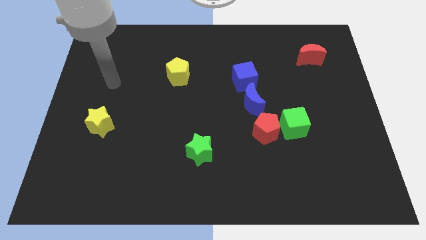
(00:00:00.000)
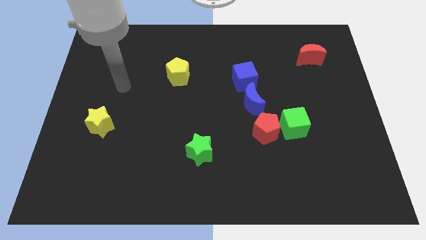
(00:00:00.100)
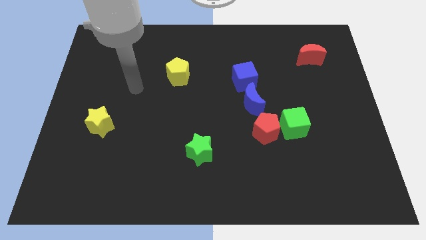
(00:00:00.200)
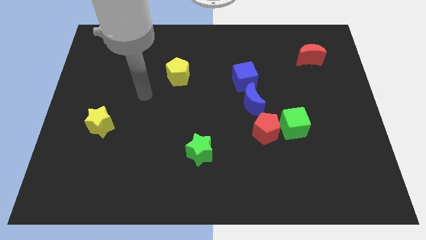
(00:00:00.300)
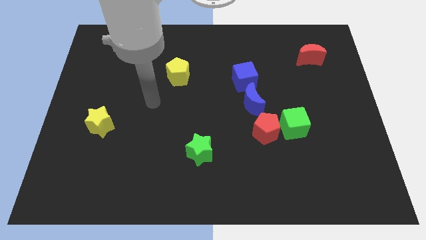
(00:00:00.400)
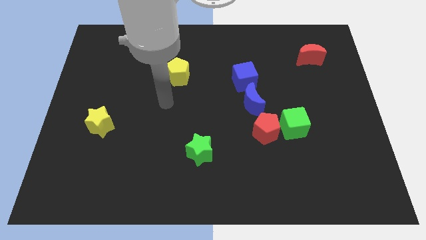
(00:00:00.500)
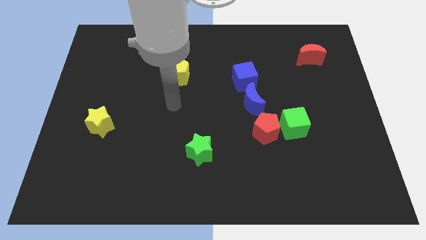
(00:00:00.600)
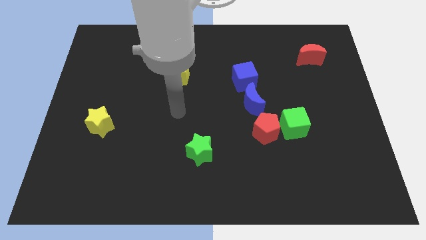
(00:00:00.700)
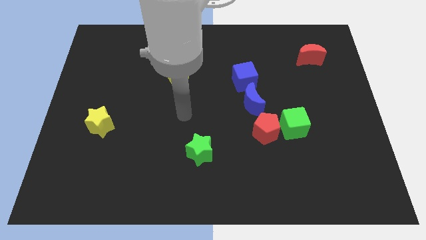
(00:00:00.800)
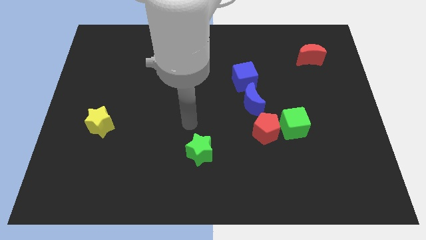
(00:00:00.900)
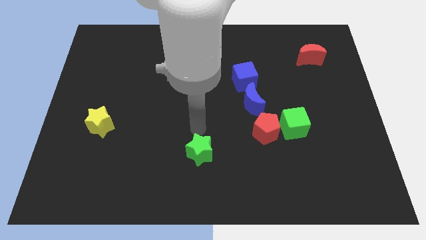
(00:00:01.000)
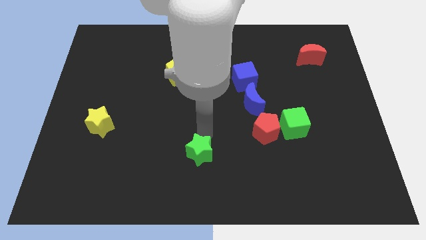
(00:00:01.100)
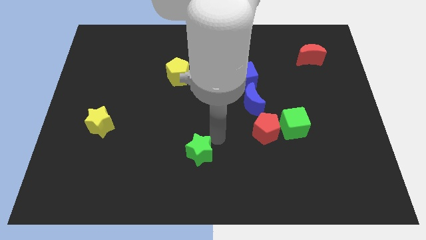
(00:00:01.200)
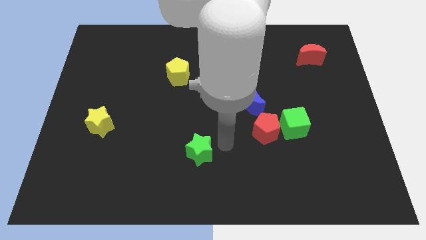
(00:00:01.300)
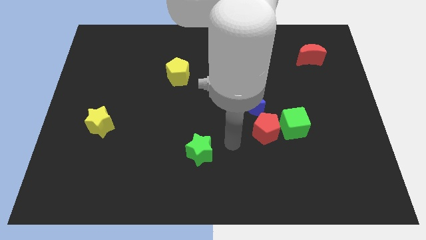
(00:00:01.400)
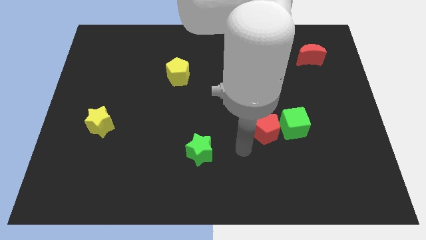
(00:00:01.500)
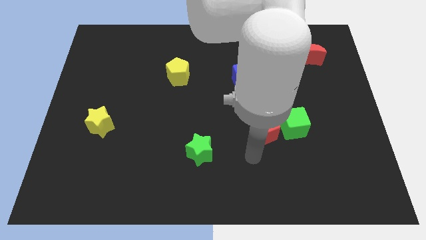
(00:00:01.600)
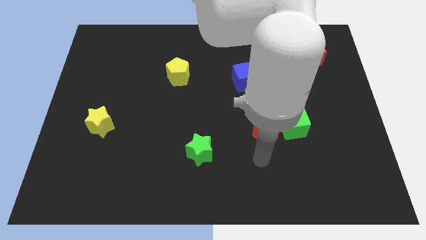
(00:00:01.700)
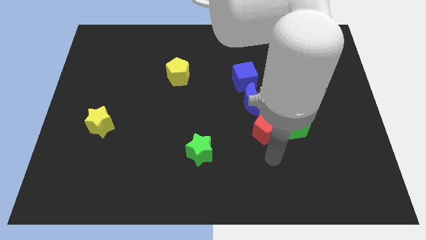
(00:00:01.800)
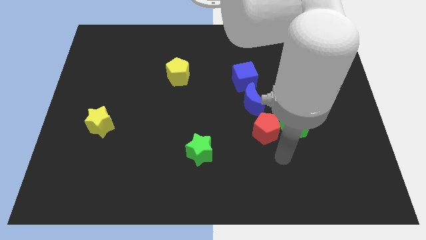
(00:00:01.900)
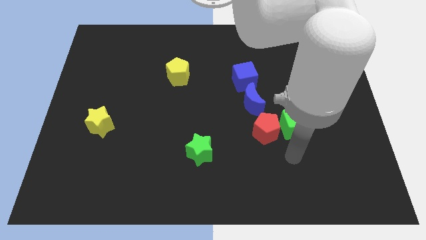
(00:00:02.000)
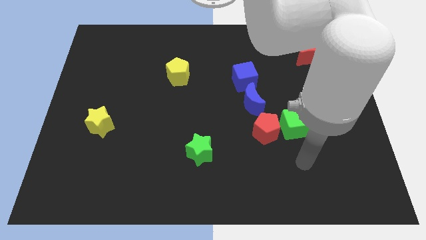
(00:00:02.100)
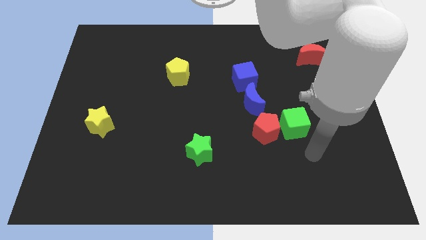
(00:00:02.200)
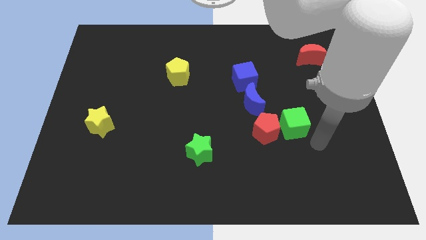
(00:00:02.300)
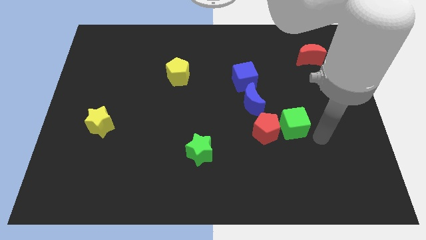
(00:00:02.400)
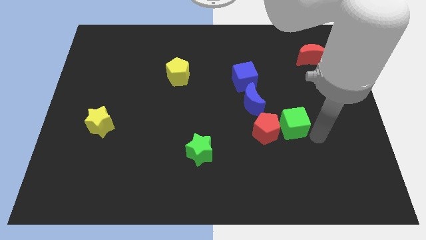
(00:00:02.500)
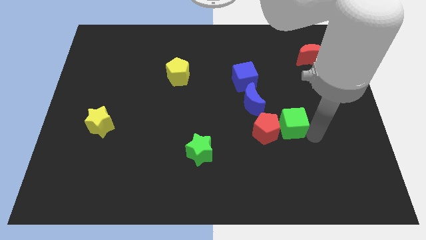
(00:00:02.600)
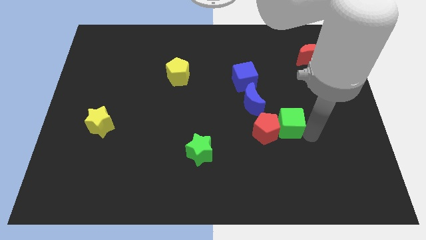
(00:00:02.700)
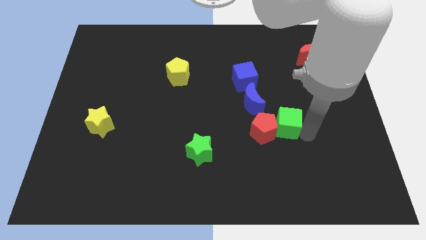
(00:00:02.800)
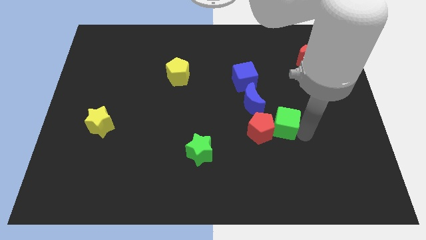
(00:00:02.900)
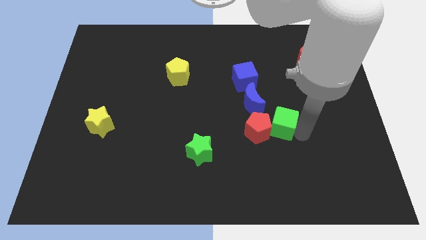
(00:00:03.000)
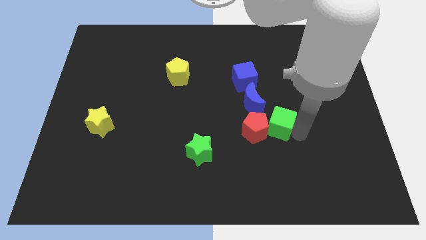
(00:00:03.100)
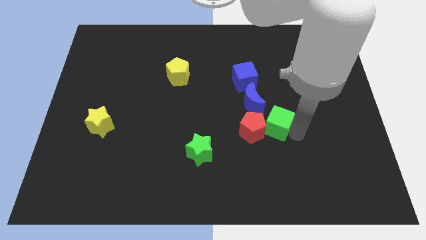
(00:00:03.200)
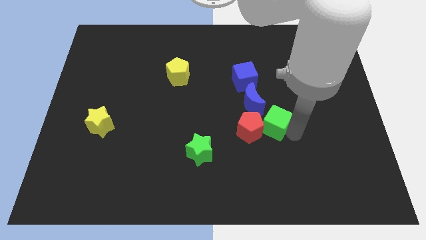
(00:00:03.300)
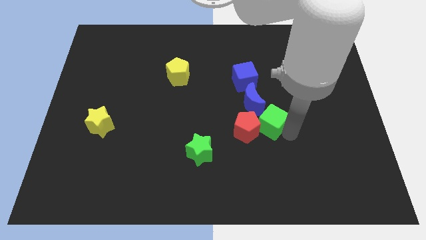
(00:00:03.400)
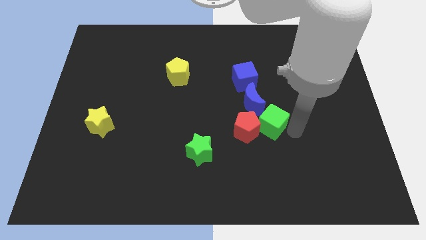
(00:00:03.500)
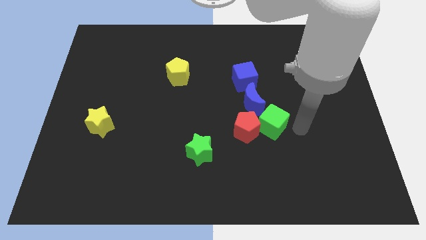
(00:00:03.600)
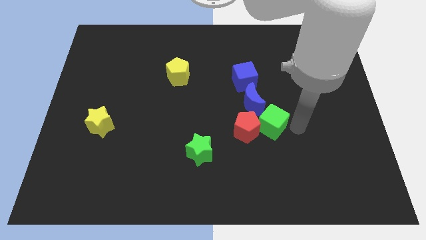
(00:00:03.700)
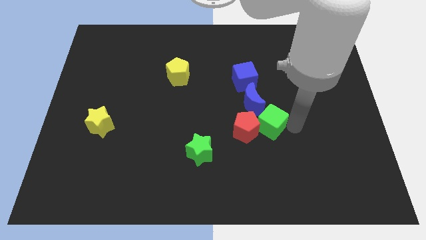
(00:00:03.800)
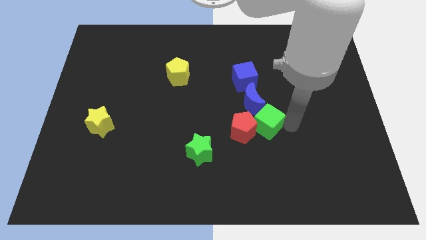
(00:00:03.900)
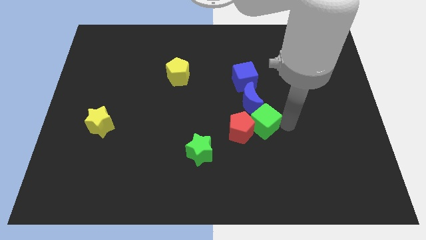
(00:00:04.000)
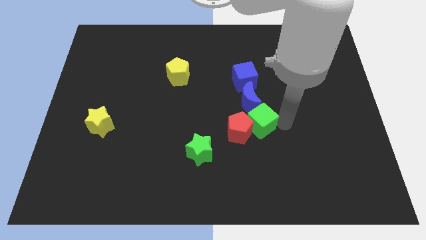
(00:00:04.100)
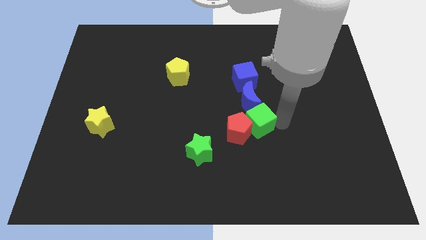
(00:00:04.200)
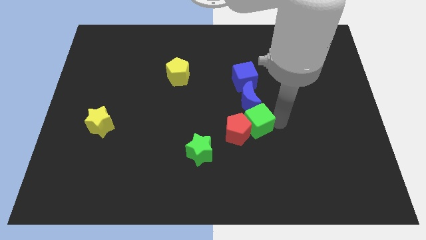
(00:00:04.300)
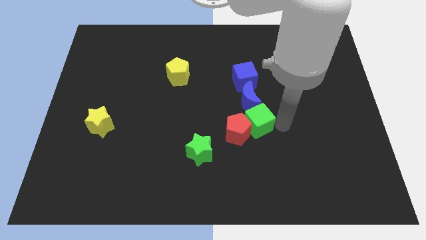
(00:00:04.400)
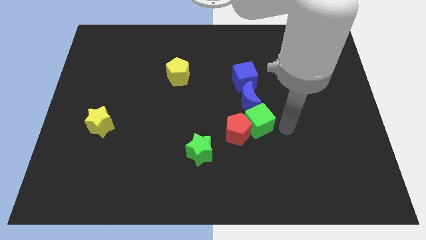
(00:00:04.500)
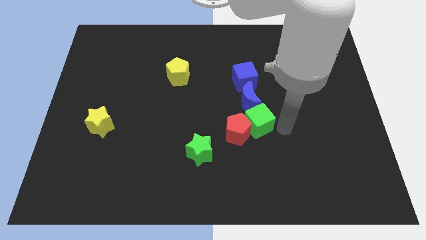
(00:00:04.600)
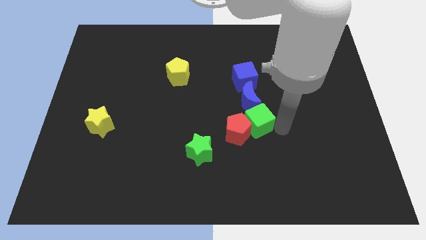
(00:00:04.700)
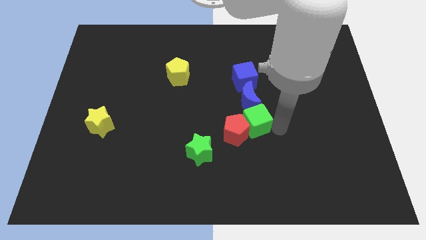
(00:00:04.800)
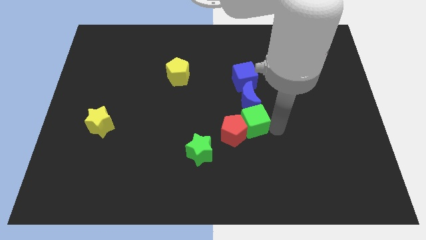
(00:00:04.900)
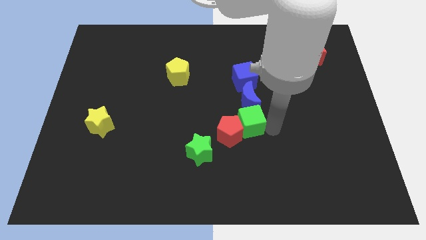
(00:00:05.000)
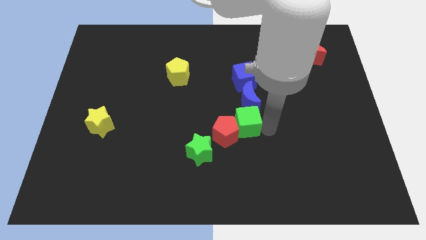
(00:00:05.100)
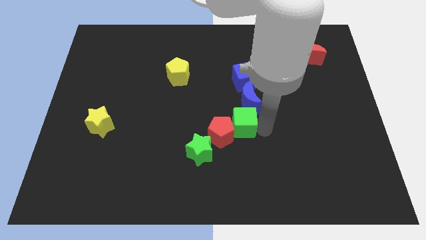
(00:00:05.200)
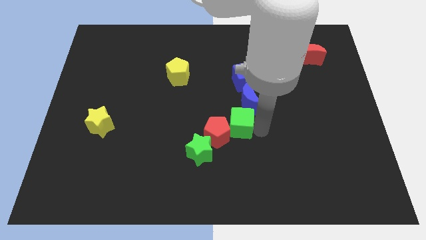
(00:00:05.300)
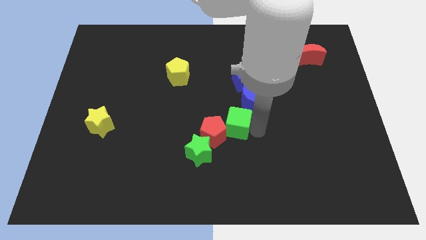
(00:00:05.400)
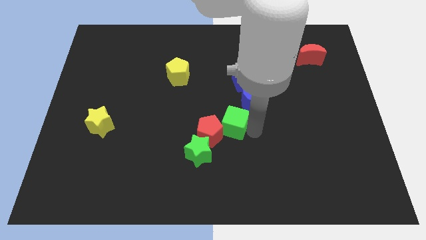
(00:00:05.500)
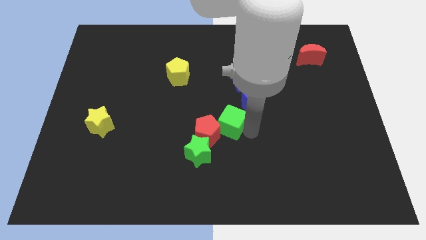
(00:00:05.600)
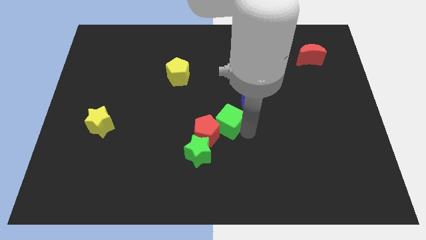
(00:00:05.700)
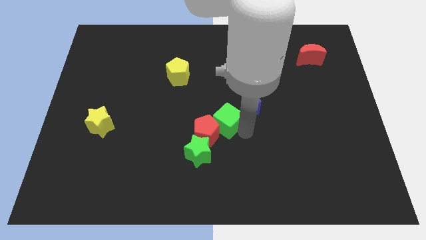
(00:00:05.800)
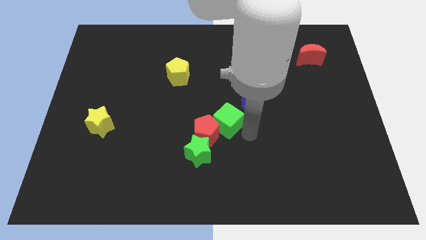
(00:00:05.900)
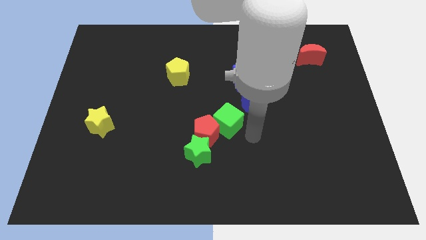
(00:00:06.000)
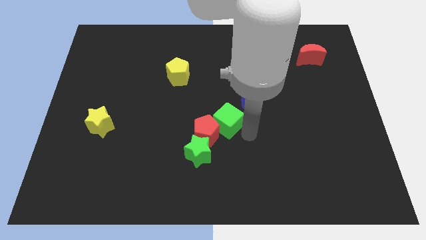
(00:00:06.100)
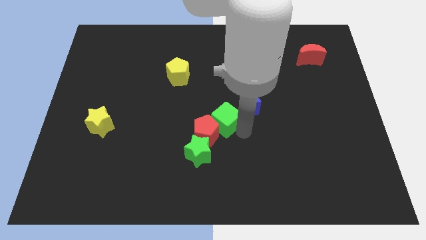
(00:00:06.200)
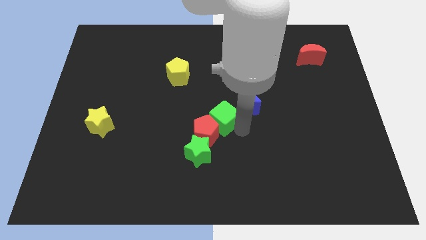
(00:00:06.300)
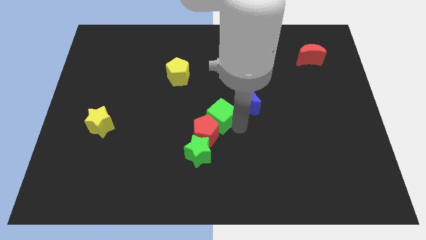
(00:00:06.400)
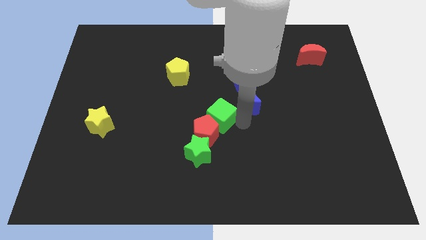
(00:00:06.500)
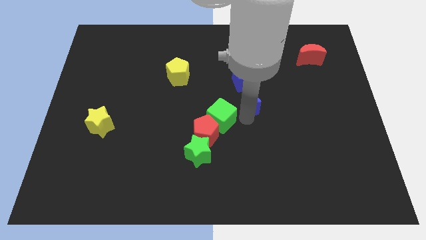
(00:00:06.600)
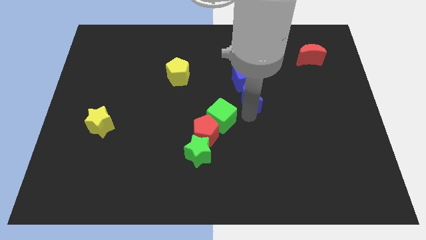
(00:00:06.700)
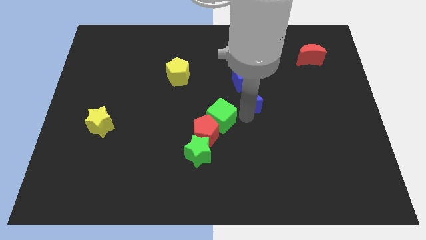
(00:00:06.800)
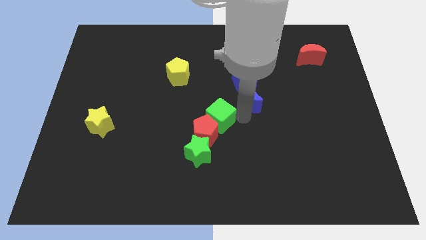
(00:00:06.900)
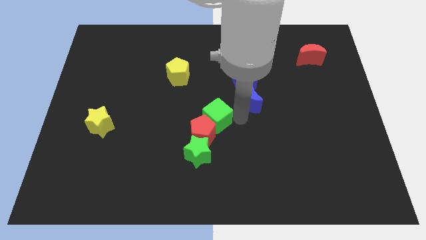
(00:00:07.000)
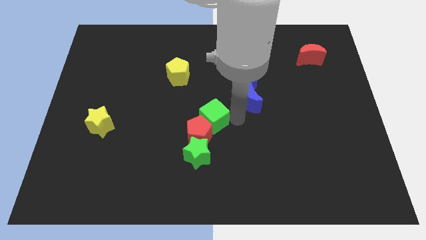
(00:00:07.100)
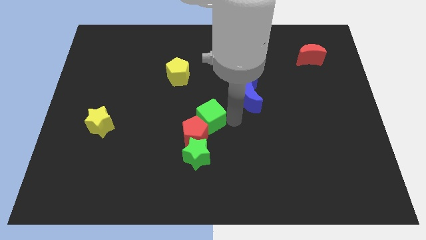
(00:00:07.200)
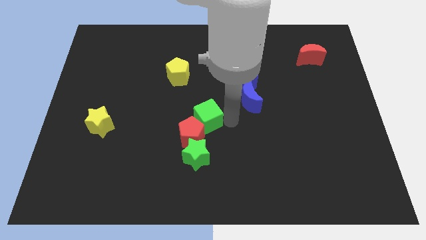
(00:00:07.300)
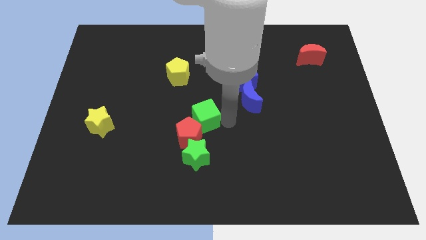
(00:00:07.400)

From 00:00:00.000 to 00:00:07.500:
push the green cube to the left

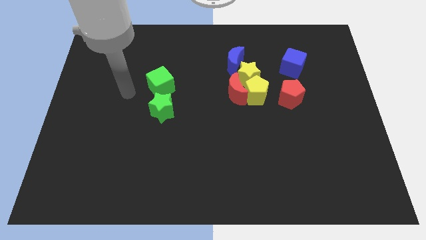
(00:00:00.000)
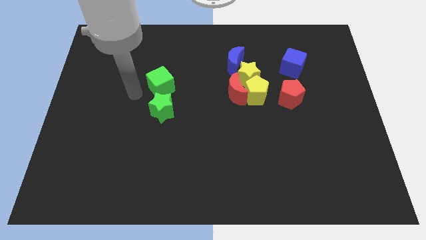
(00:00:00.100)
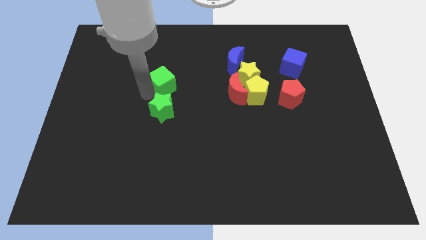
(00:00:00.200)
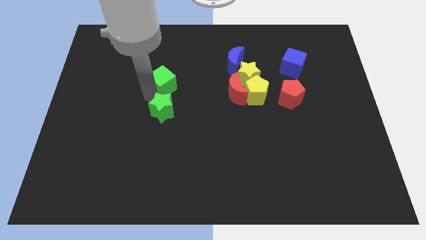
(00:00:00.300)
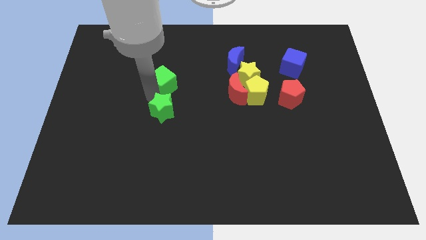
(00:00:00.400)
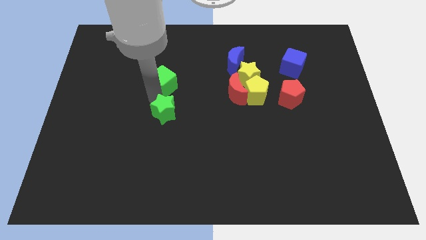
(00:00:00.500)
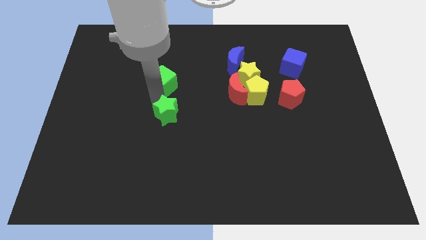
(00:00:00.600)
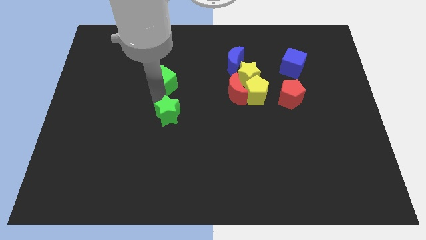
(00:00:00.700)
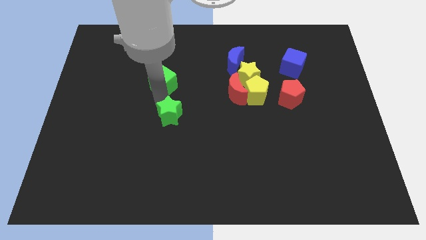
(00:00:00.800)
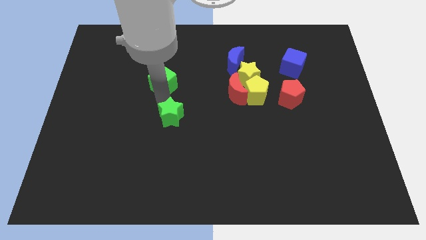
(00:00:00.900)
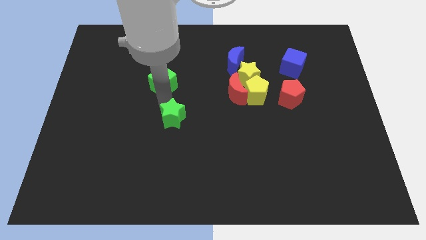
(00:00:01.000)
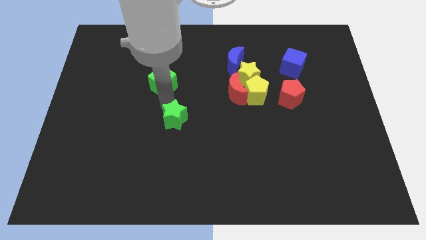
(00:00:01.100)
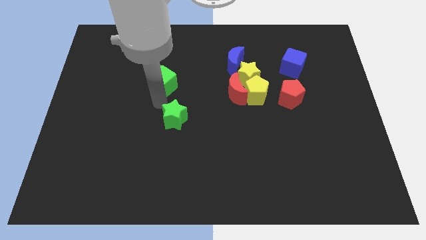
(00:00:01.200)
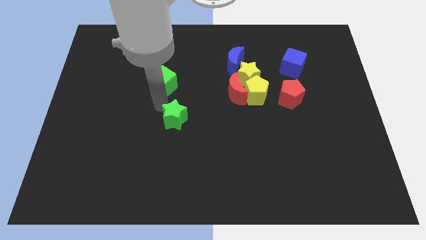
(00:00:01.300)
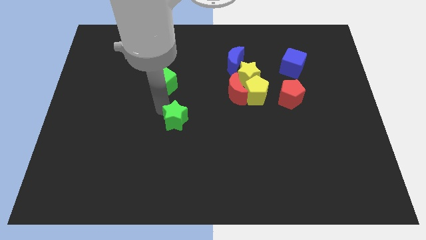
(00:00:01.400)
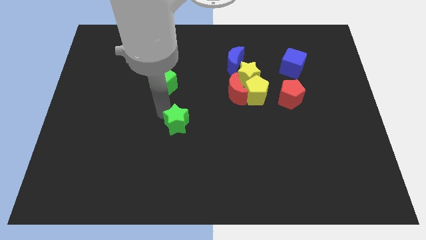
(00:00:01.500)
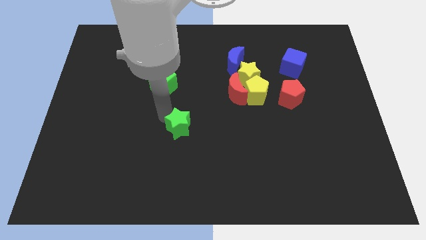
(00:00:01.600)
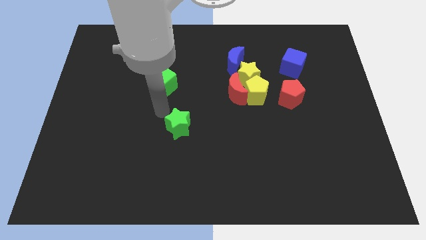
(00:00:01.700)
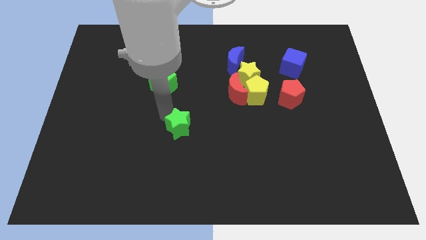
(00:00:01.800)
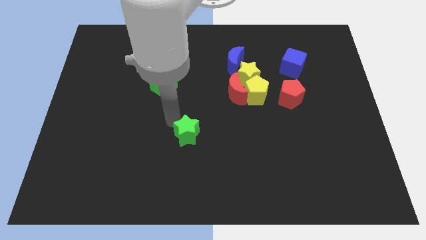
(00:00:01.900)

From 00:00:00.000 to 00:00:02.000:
slightly slide the green star downwards and then right
